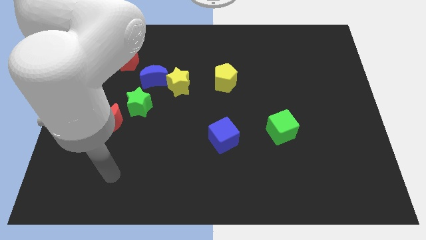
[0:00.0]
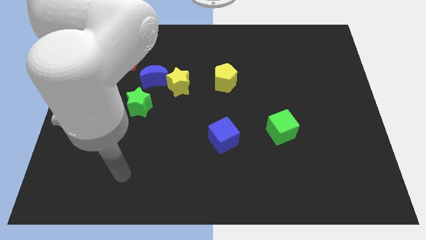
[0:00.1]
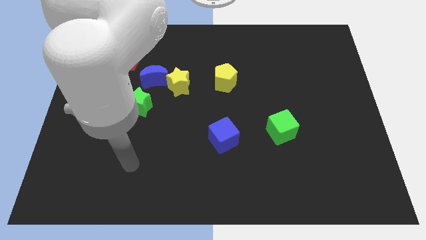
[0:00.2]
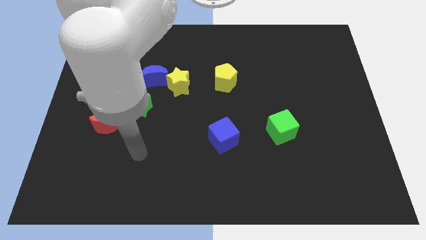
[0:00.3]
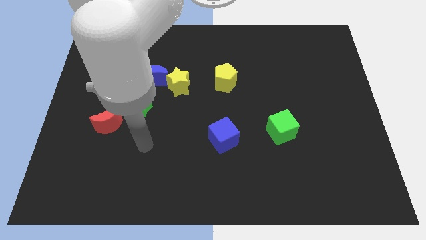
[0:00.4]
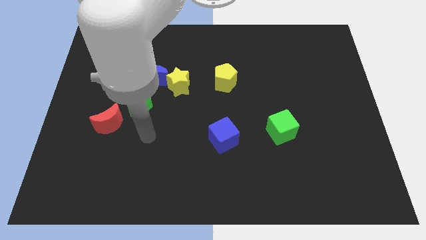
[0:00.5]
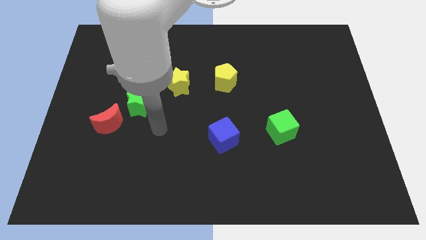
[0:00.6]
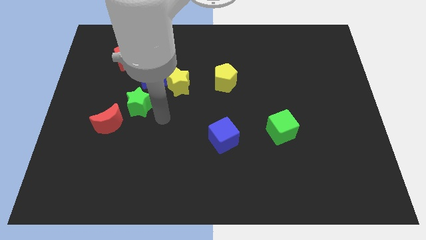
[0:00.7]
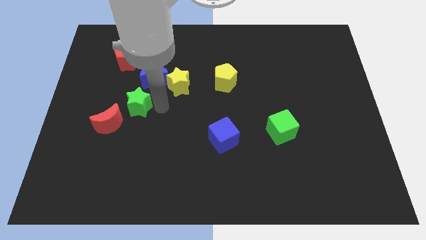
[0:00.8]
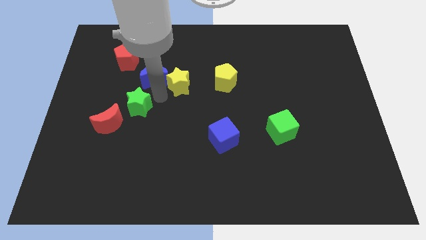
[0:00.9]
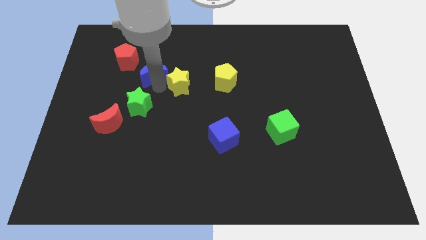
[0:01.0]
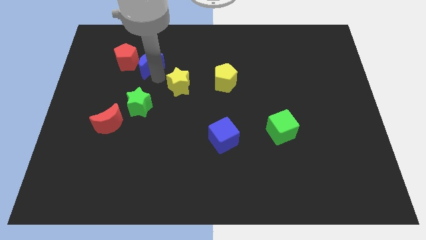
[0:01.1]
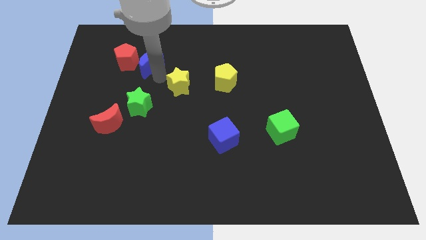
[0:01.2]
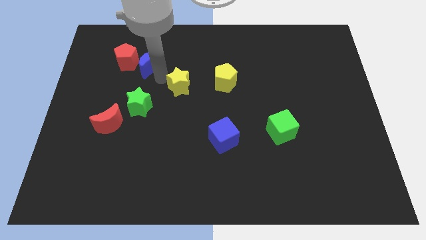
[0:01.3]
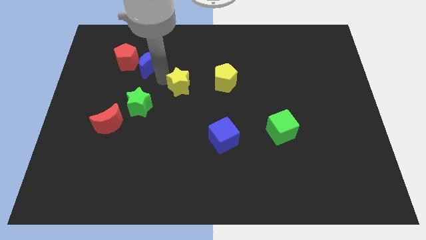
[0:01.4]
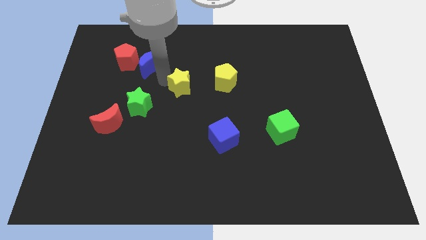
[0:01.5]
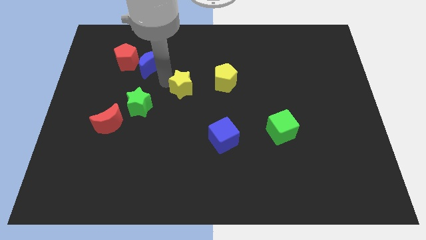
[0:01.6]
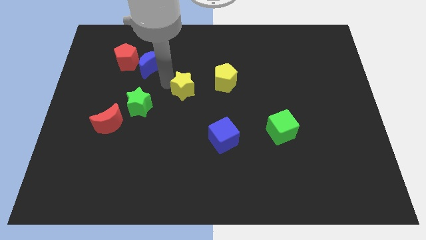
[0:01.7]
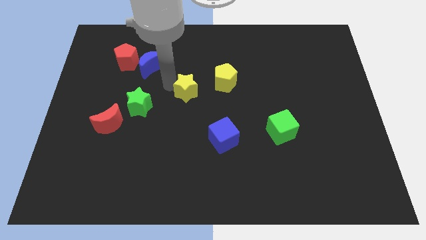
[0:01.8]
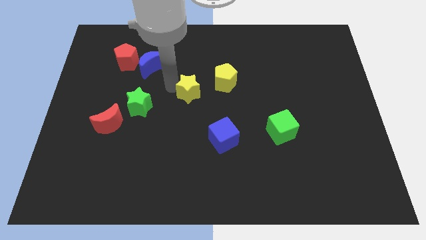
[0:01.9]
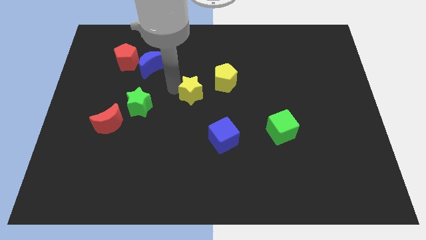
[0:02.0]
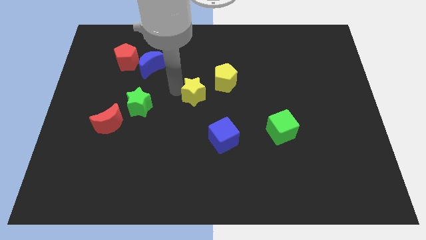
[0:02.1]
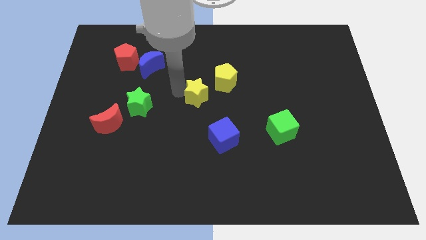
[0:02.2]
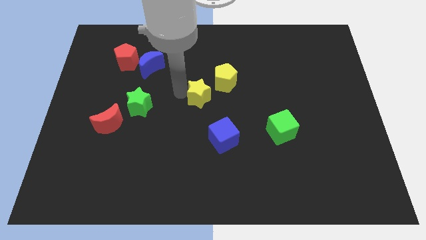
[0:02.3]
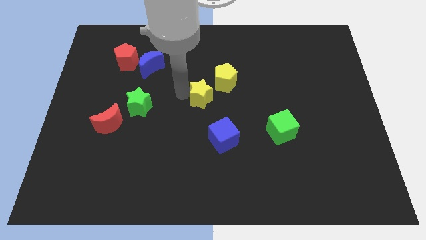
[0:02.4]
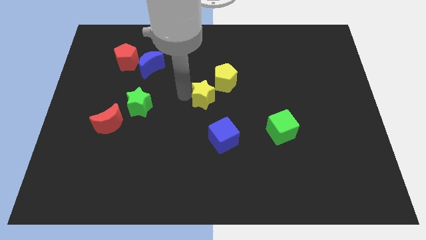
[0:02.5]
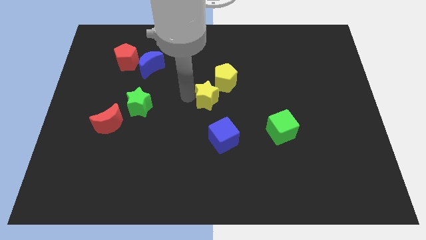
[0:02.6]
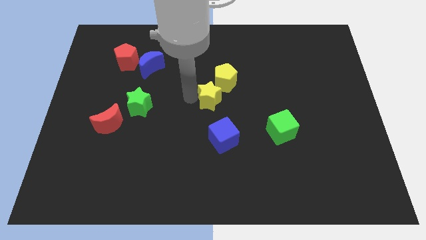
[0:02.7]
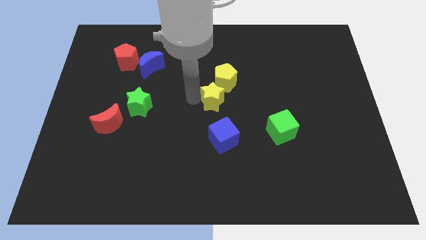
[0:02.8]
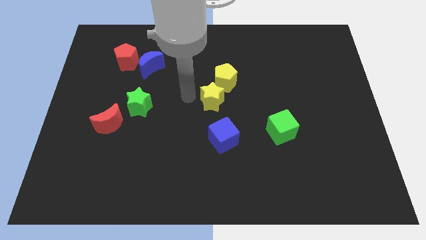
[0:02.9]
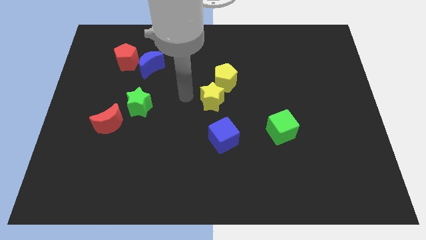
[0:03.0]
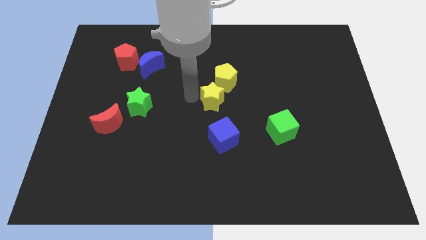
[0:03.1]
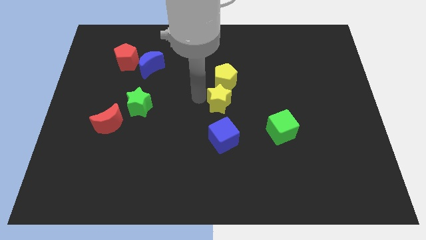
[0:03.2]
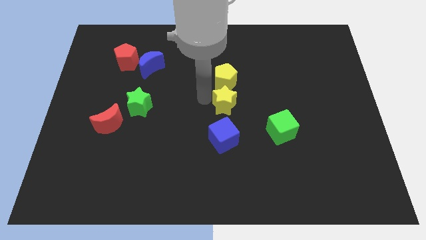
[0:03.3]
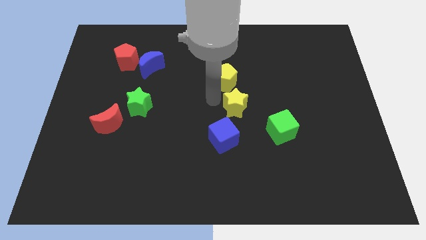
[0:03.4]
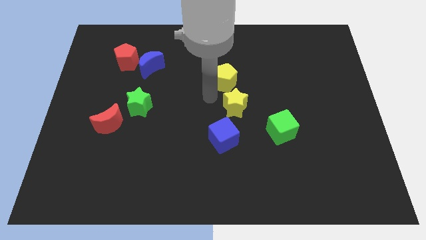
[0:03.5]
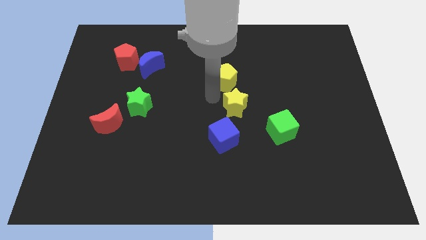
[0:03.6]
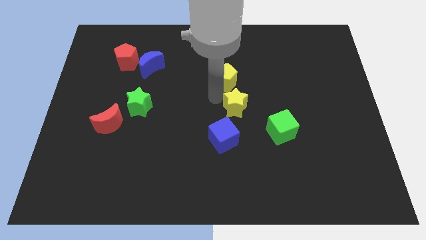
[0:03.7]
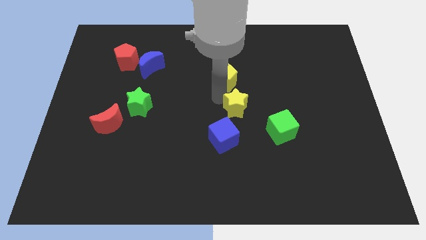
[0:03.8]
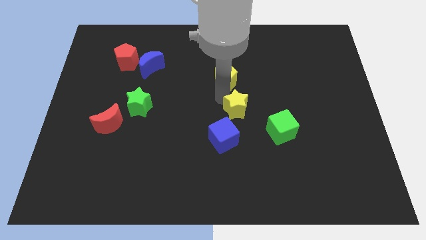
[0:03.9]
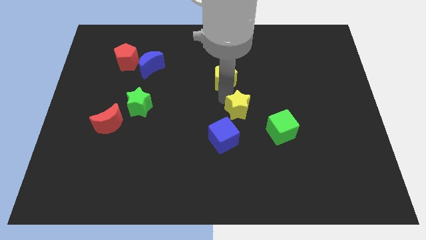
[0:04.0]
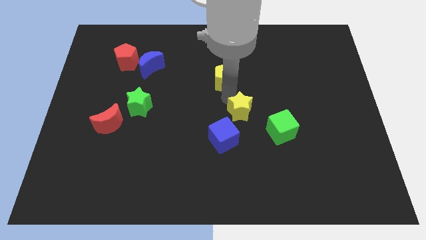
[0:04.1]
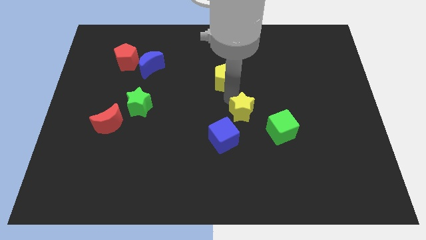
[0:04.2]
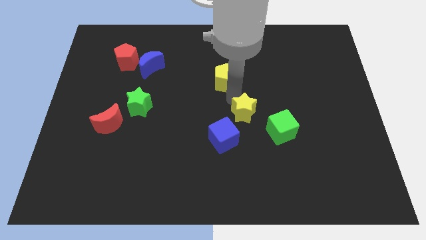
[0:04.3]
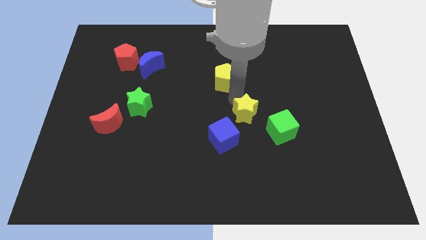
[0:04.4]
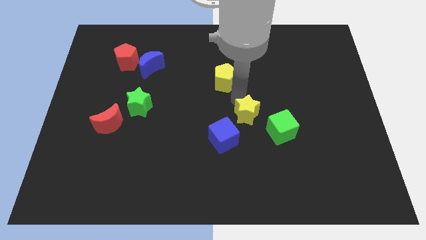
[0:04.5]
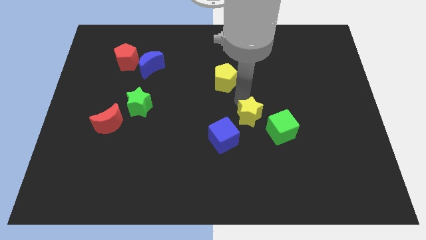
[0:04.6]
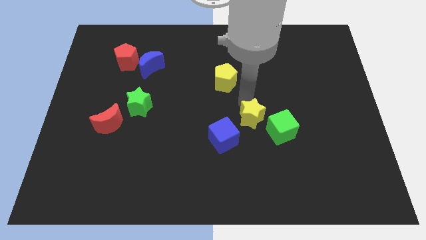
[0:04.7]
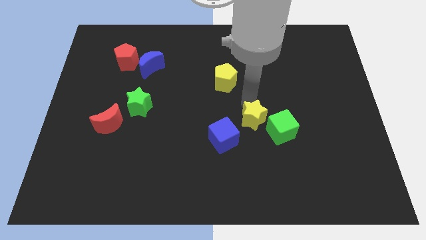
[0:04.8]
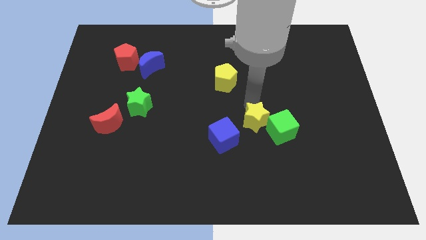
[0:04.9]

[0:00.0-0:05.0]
slide the yellow star next to the green cube

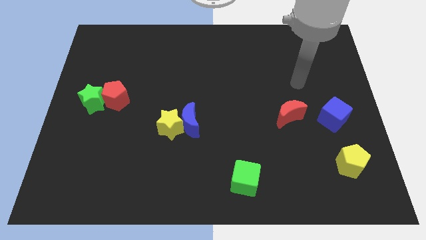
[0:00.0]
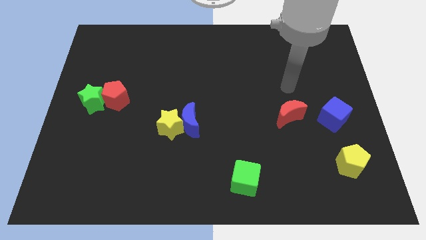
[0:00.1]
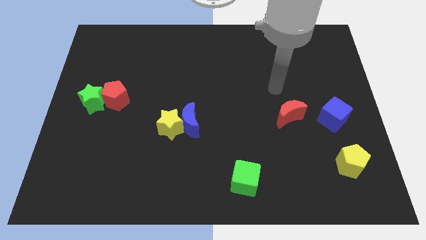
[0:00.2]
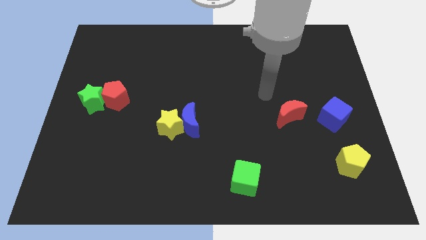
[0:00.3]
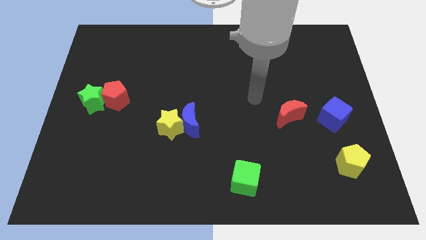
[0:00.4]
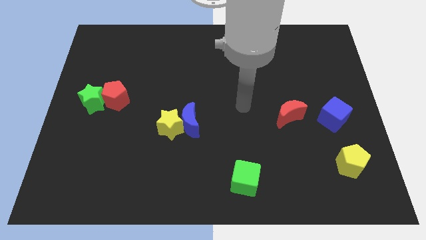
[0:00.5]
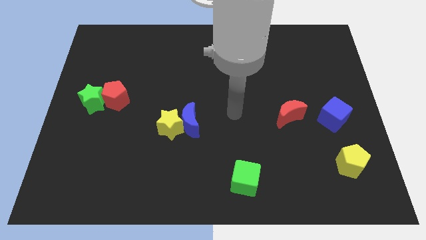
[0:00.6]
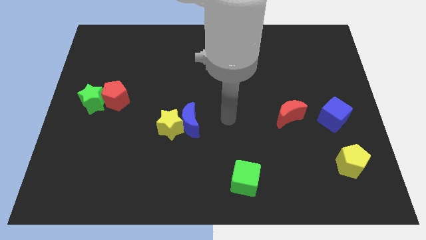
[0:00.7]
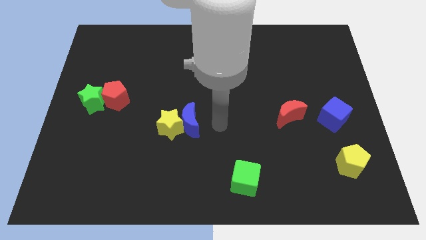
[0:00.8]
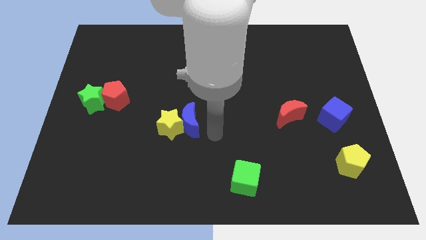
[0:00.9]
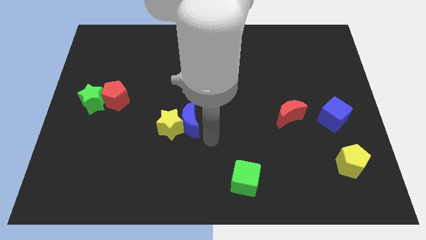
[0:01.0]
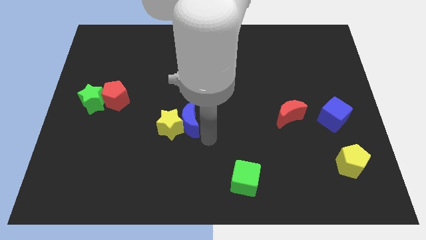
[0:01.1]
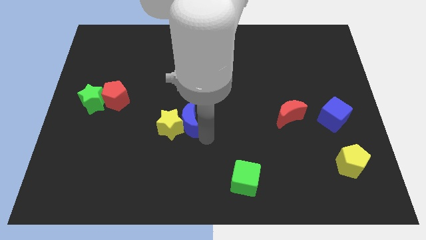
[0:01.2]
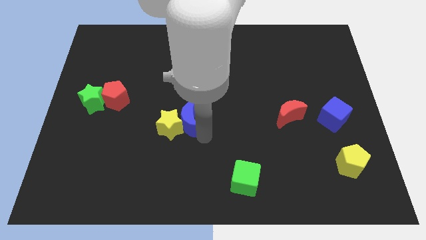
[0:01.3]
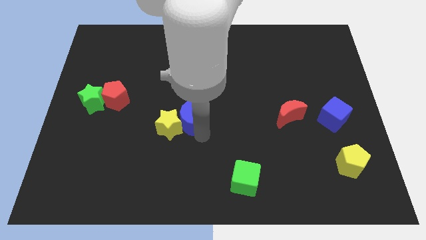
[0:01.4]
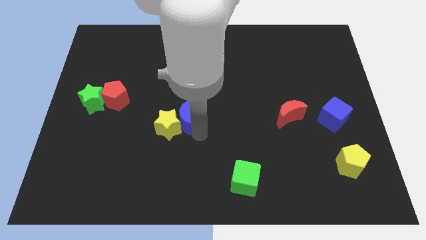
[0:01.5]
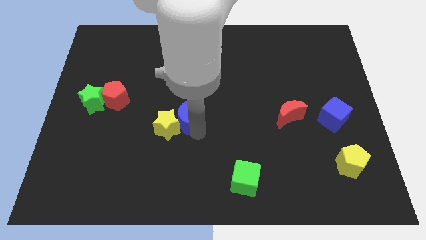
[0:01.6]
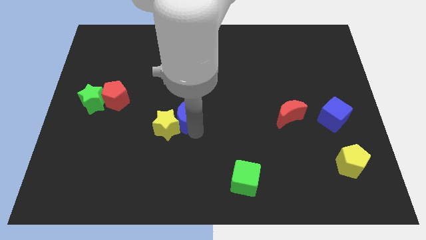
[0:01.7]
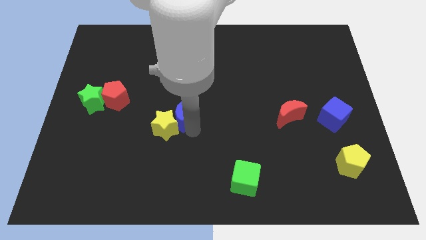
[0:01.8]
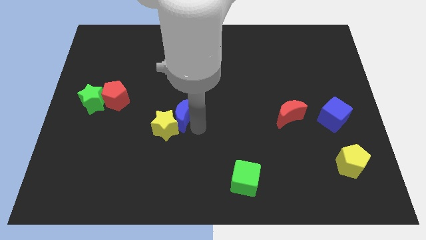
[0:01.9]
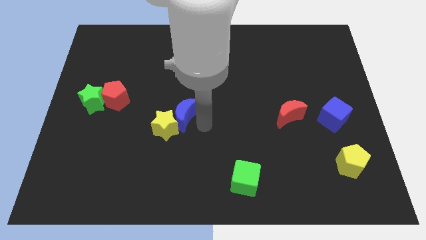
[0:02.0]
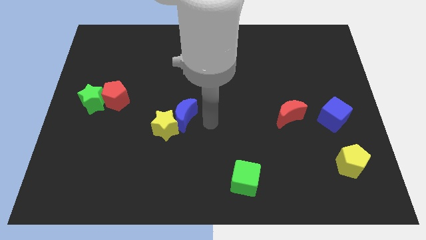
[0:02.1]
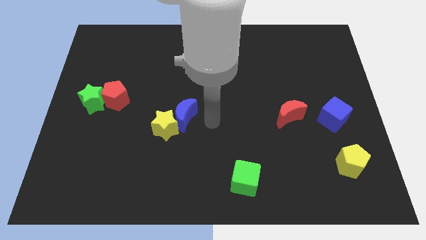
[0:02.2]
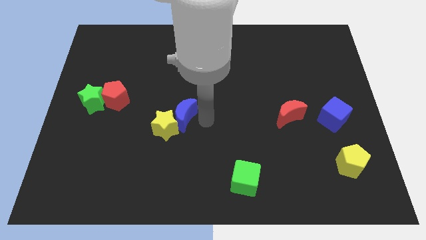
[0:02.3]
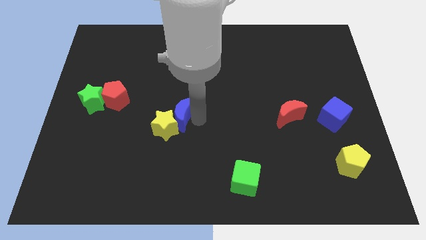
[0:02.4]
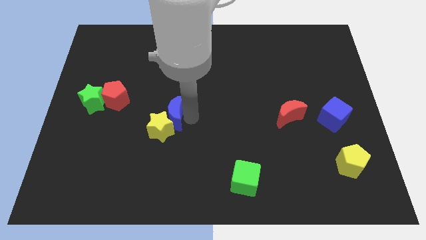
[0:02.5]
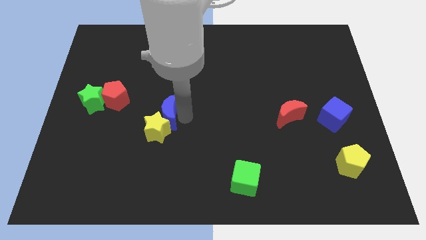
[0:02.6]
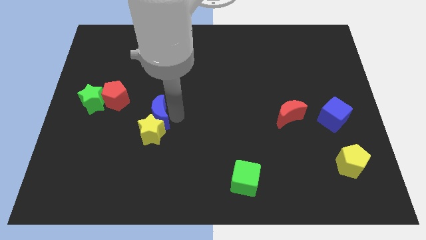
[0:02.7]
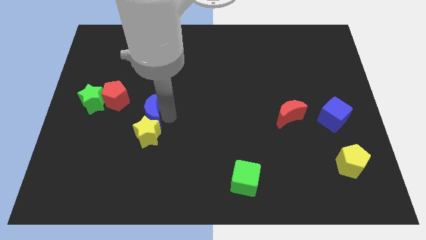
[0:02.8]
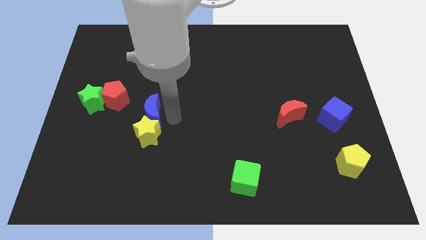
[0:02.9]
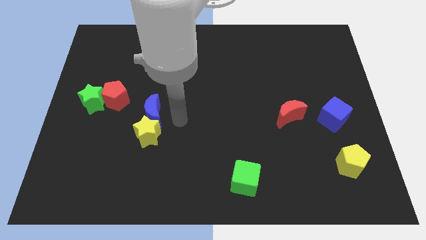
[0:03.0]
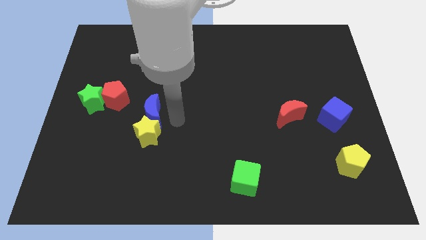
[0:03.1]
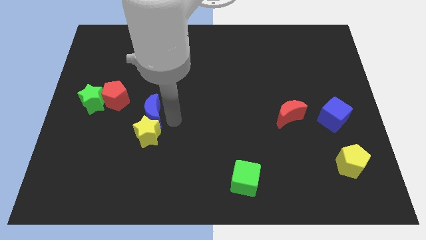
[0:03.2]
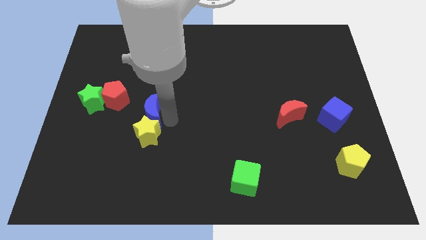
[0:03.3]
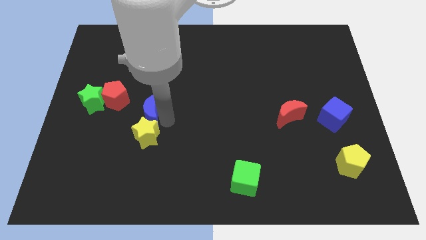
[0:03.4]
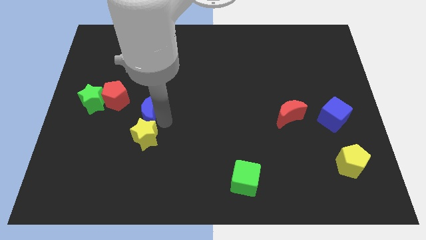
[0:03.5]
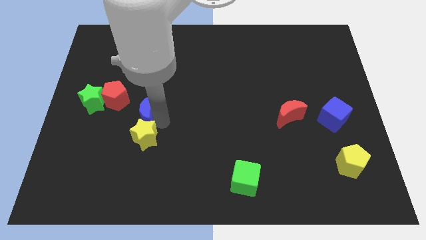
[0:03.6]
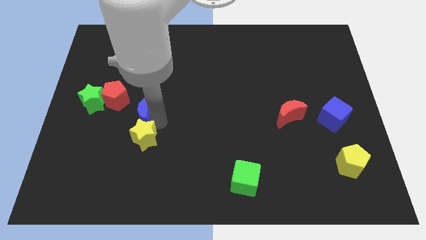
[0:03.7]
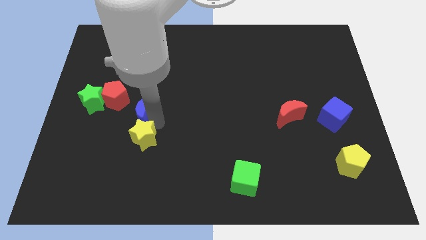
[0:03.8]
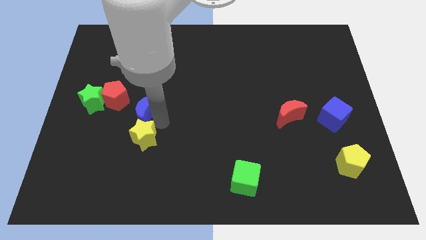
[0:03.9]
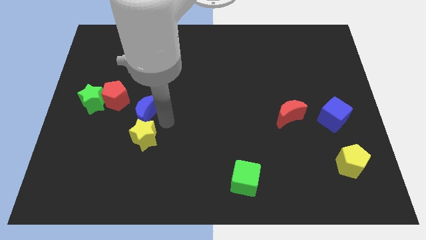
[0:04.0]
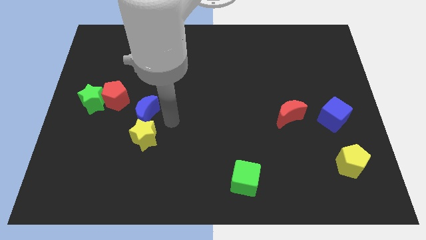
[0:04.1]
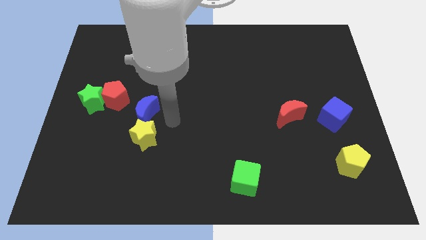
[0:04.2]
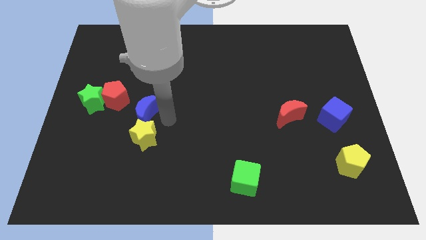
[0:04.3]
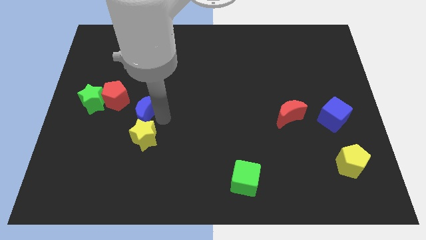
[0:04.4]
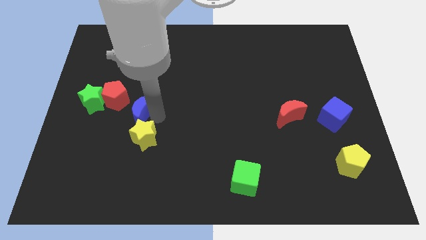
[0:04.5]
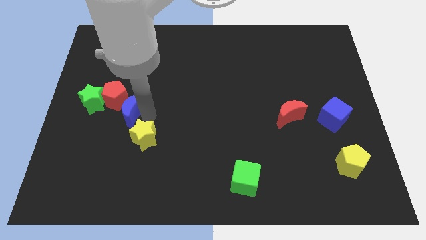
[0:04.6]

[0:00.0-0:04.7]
push the blue moon next to the red pentagon
